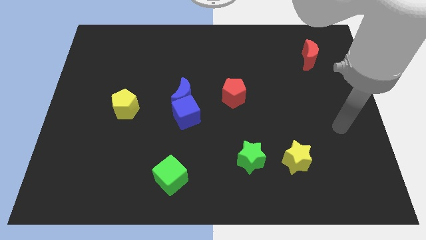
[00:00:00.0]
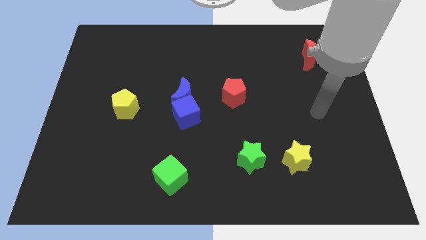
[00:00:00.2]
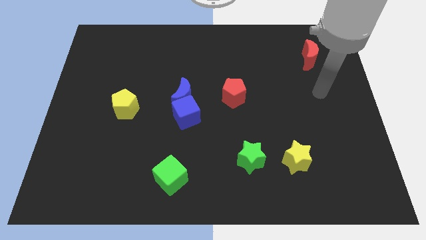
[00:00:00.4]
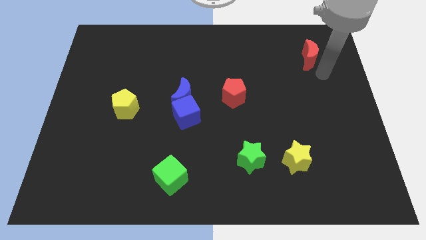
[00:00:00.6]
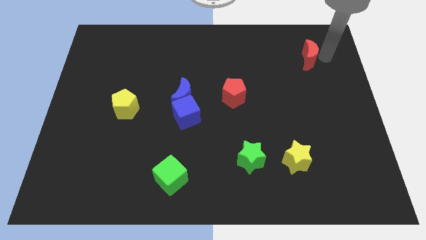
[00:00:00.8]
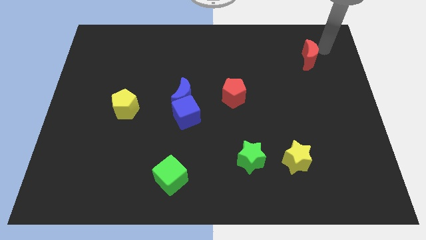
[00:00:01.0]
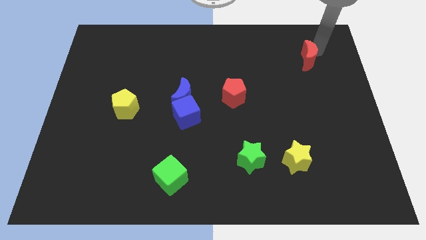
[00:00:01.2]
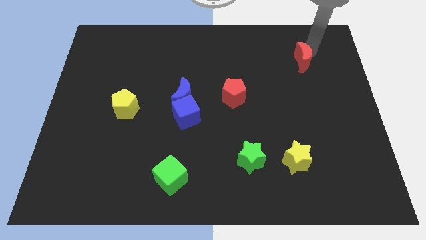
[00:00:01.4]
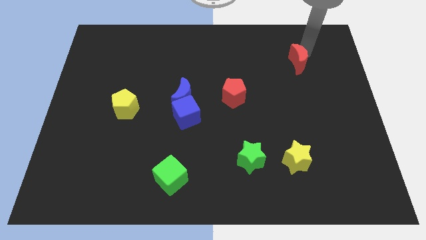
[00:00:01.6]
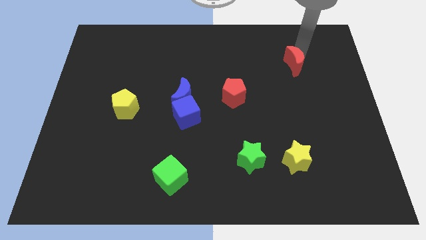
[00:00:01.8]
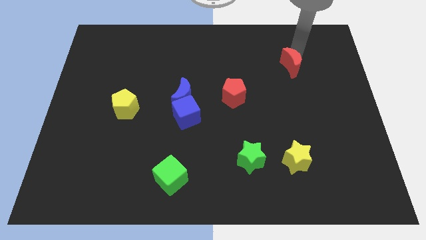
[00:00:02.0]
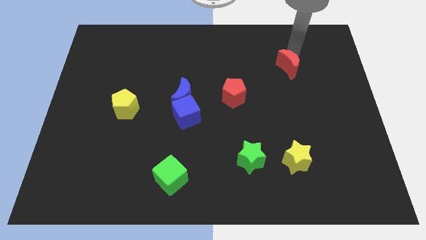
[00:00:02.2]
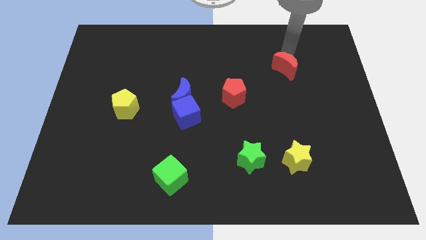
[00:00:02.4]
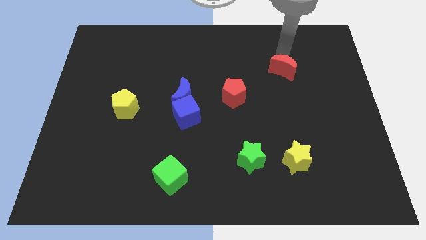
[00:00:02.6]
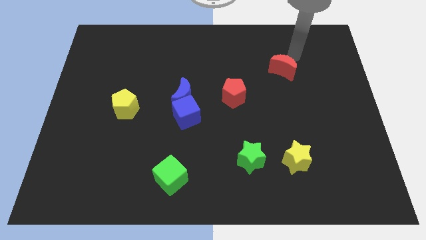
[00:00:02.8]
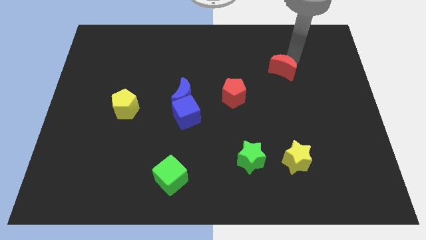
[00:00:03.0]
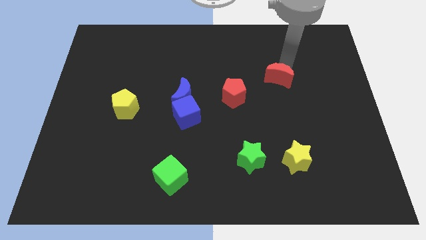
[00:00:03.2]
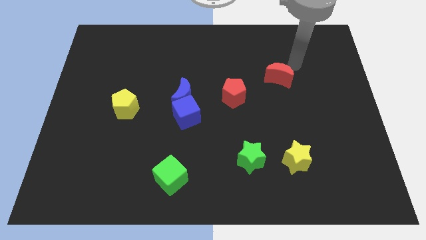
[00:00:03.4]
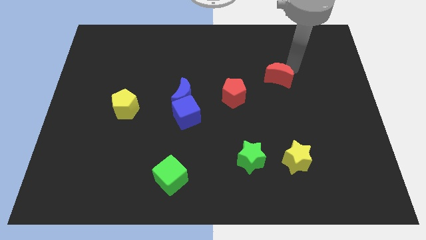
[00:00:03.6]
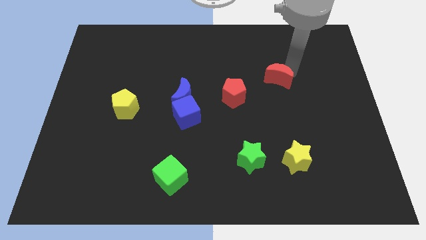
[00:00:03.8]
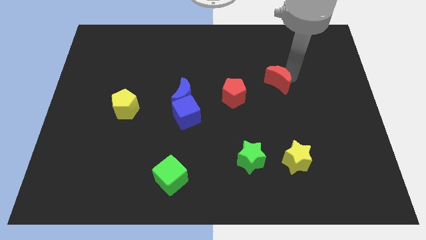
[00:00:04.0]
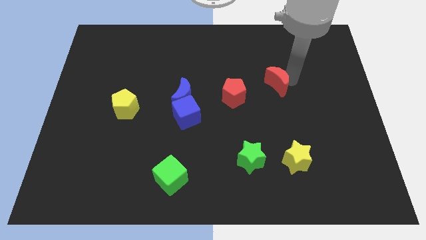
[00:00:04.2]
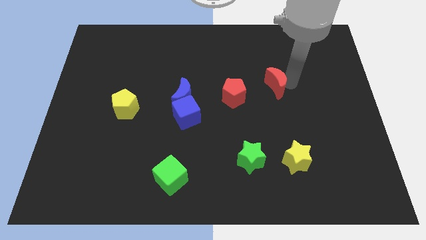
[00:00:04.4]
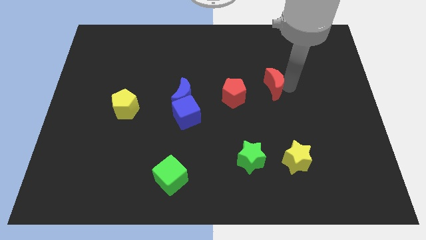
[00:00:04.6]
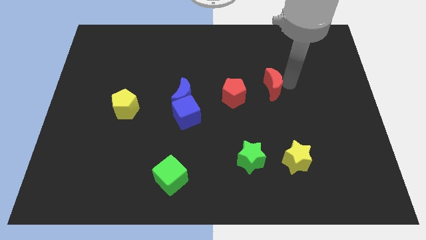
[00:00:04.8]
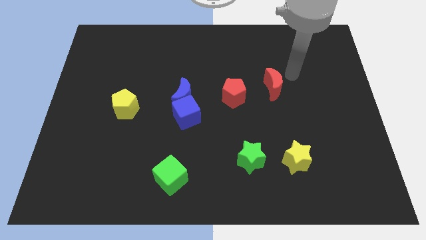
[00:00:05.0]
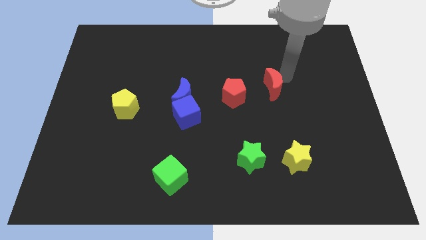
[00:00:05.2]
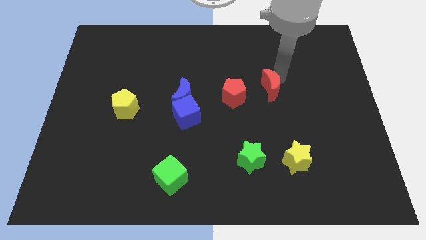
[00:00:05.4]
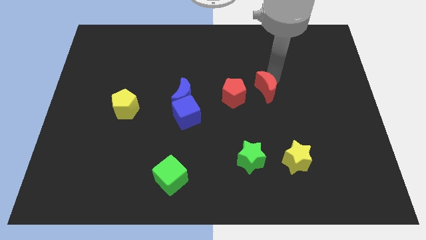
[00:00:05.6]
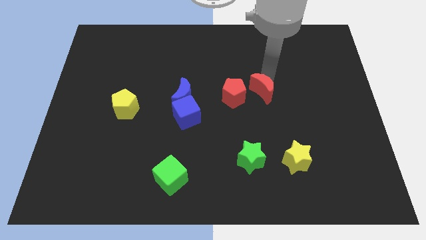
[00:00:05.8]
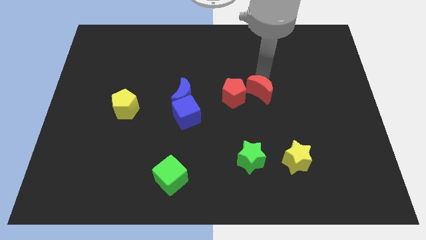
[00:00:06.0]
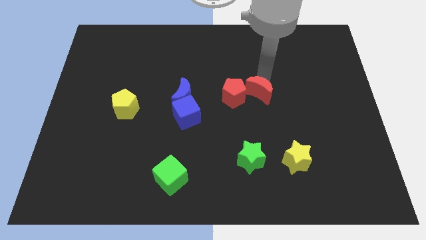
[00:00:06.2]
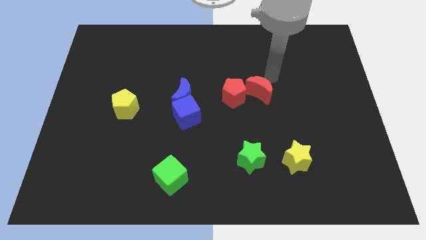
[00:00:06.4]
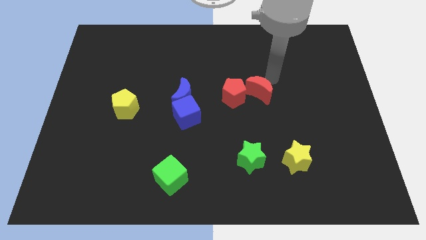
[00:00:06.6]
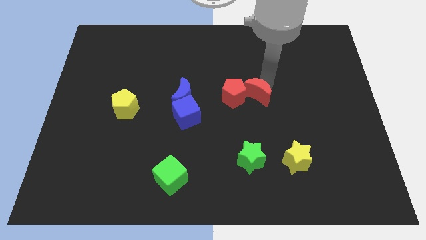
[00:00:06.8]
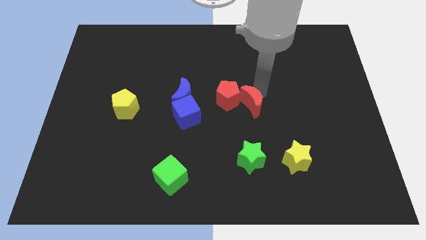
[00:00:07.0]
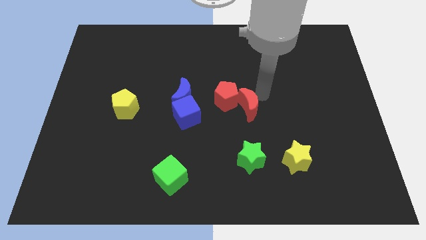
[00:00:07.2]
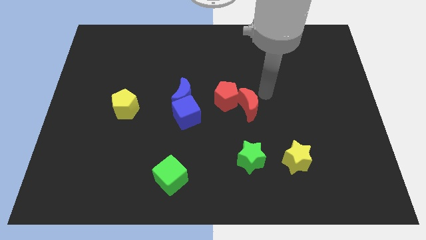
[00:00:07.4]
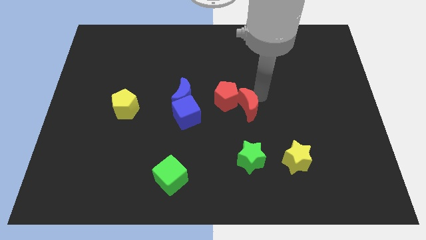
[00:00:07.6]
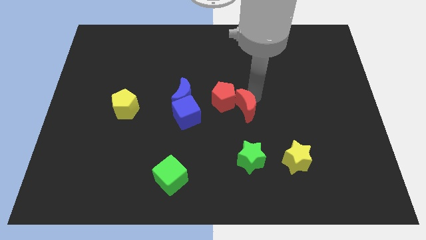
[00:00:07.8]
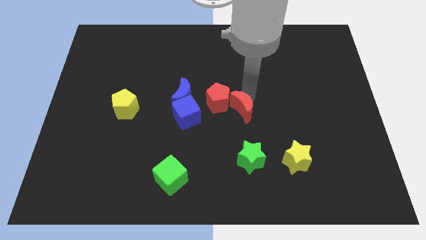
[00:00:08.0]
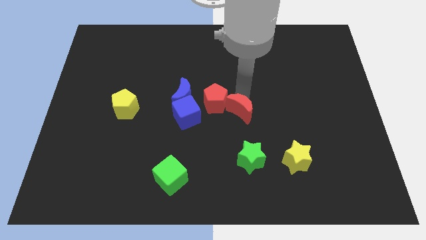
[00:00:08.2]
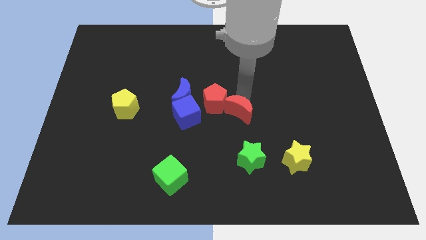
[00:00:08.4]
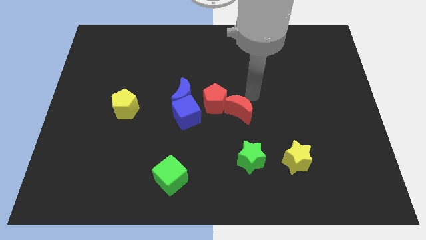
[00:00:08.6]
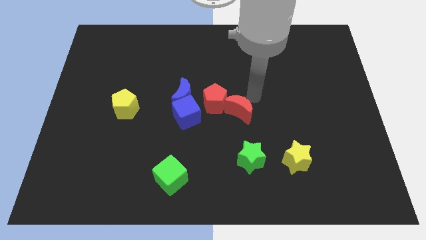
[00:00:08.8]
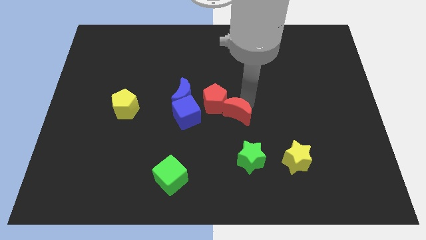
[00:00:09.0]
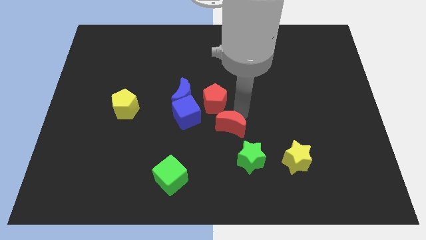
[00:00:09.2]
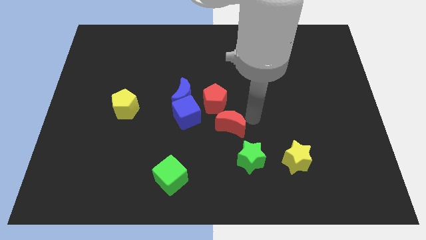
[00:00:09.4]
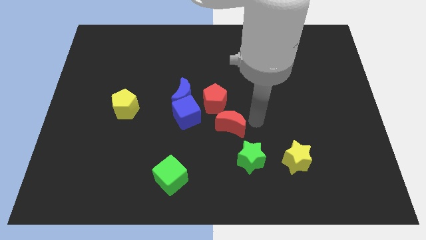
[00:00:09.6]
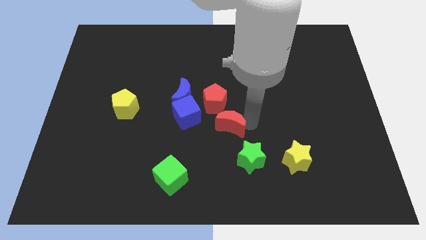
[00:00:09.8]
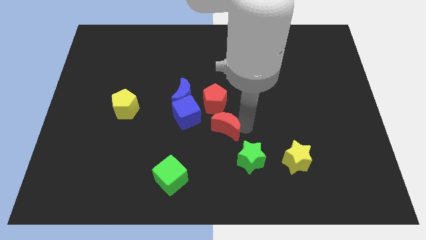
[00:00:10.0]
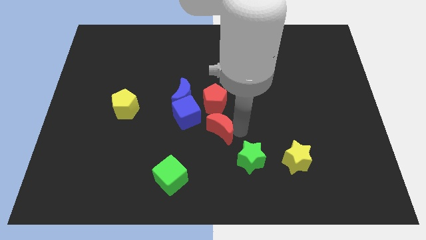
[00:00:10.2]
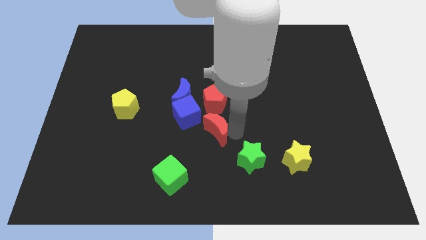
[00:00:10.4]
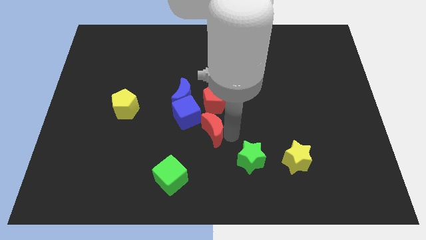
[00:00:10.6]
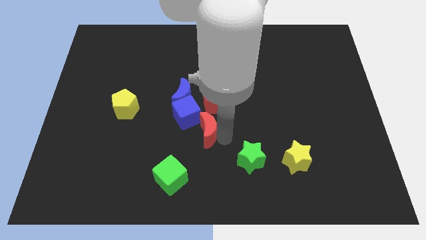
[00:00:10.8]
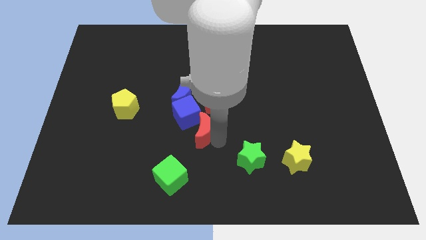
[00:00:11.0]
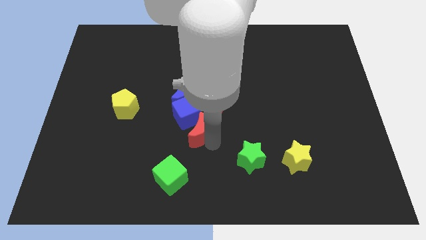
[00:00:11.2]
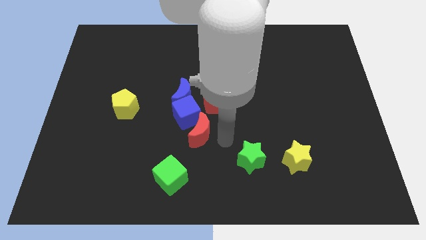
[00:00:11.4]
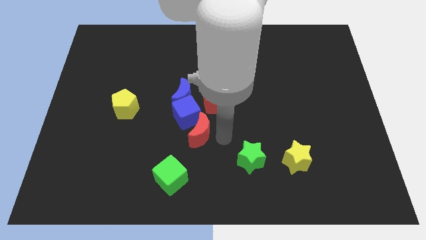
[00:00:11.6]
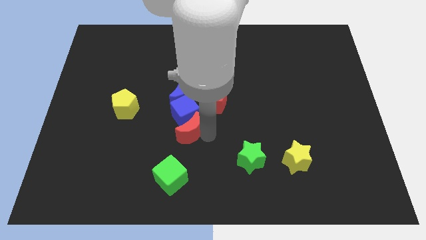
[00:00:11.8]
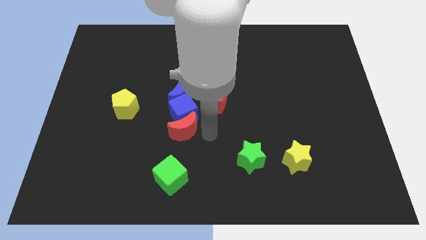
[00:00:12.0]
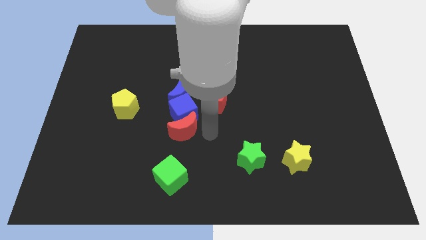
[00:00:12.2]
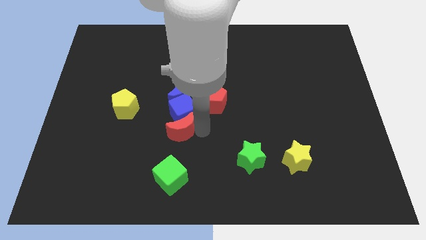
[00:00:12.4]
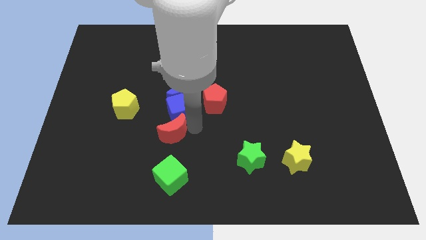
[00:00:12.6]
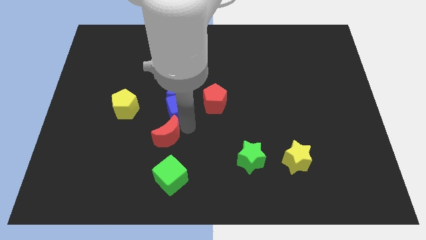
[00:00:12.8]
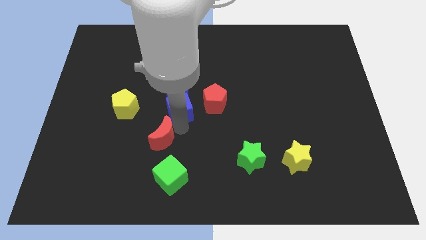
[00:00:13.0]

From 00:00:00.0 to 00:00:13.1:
push the red moon to the bottom right of the yellow pentagon
